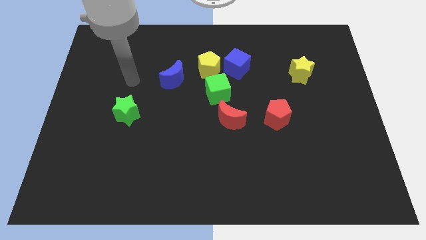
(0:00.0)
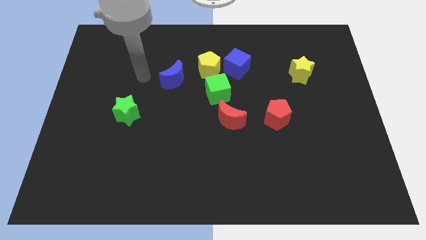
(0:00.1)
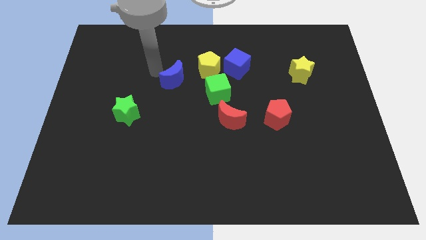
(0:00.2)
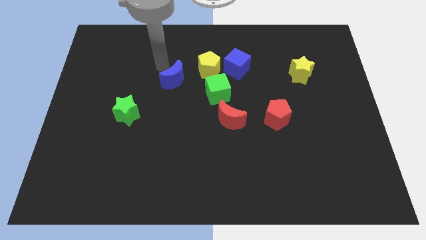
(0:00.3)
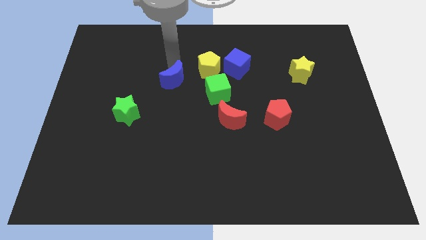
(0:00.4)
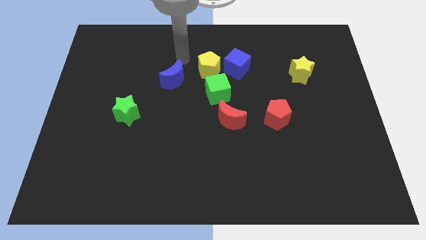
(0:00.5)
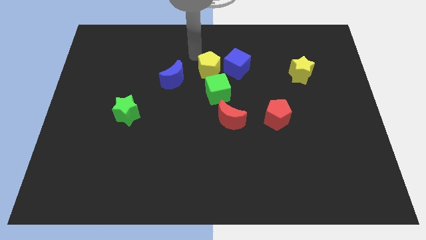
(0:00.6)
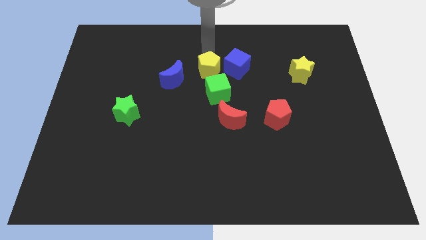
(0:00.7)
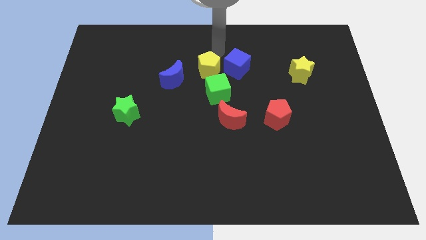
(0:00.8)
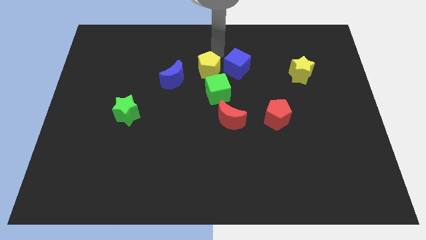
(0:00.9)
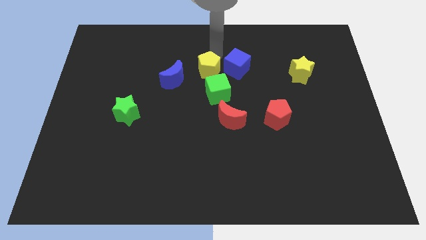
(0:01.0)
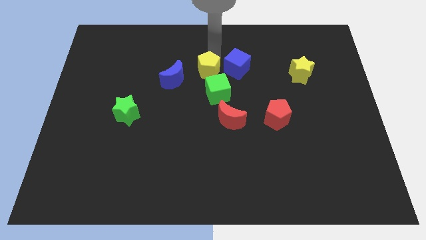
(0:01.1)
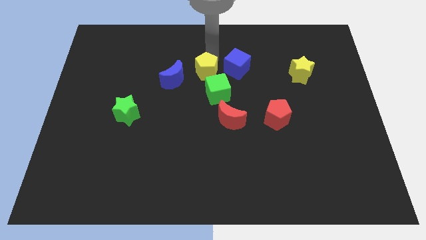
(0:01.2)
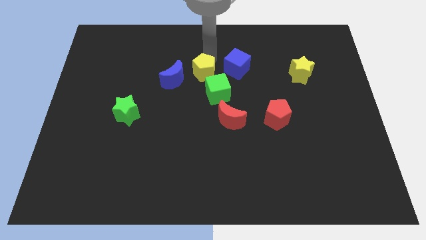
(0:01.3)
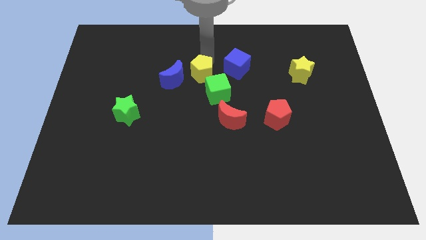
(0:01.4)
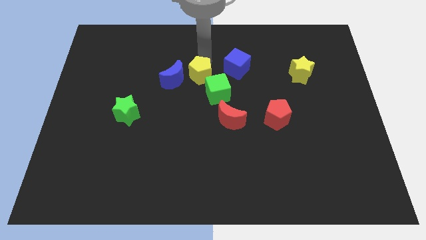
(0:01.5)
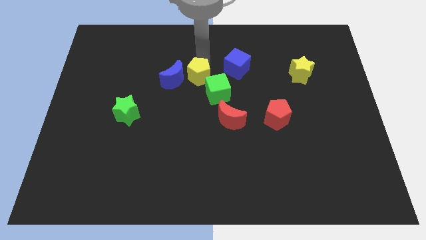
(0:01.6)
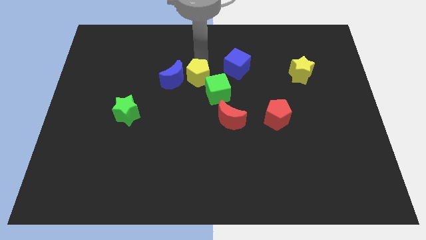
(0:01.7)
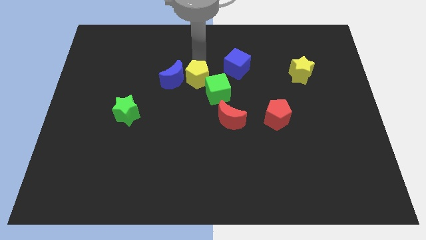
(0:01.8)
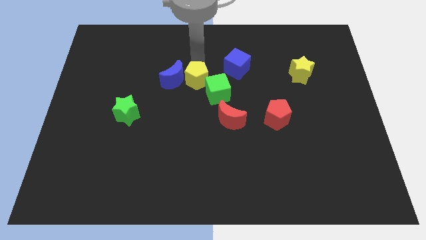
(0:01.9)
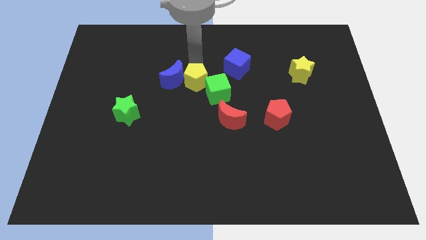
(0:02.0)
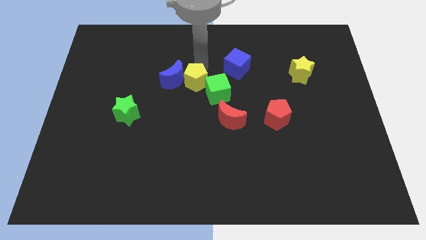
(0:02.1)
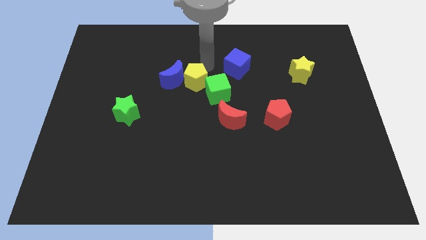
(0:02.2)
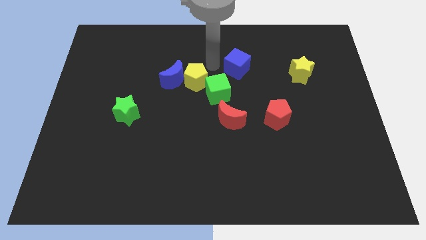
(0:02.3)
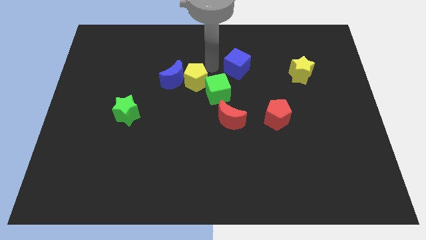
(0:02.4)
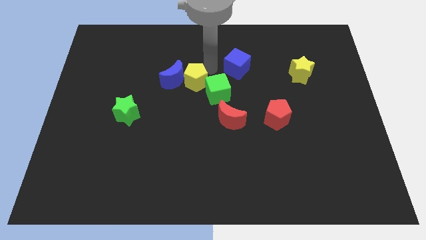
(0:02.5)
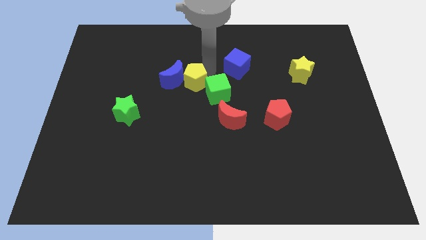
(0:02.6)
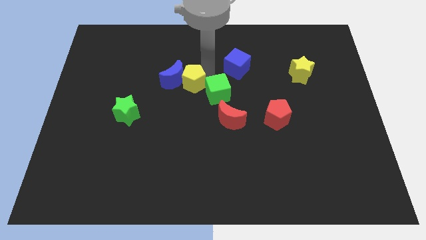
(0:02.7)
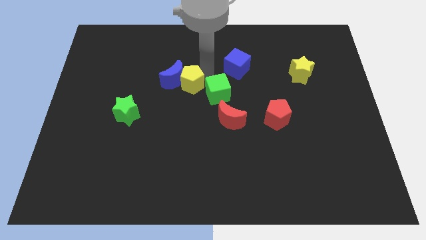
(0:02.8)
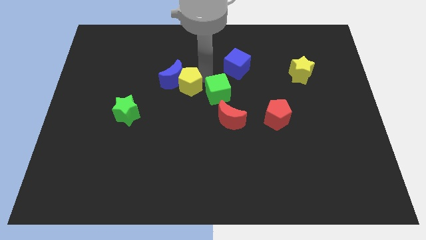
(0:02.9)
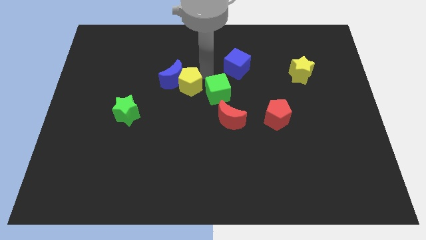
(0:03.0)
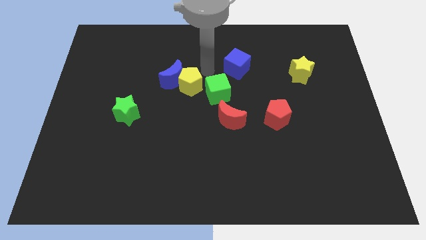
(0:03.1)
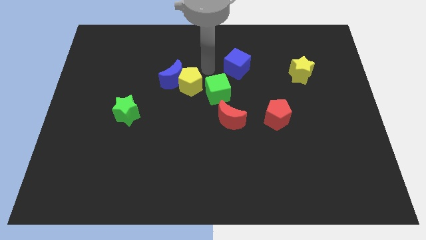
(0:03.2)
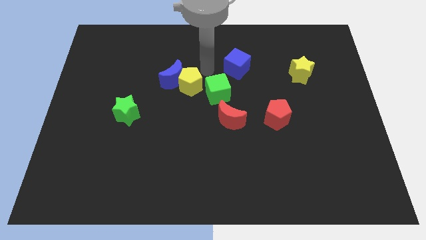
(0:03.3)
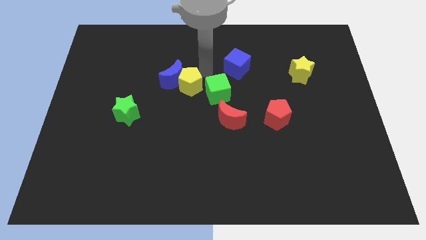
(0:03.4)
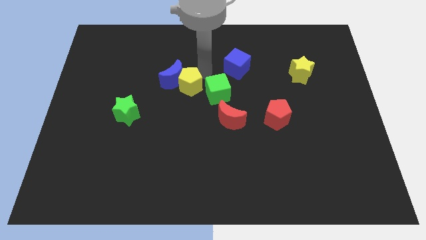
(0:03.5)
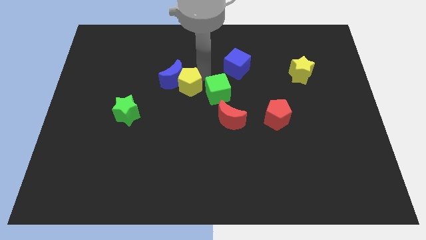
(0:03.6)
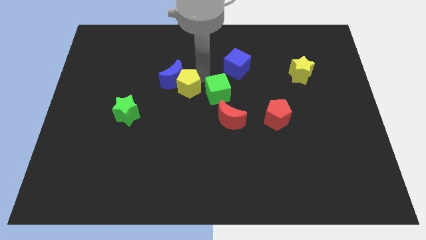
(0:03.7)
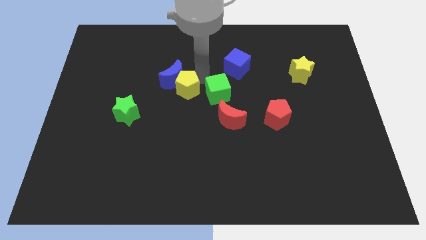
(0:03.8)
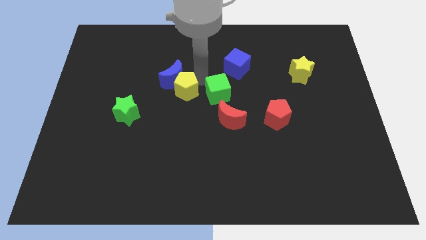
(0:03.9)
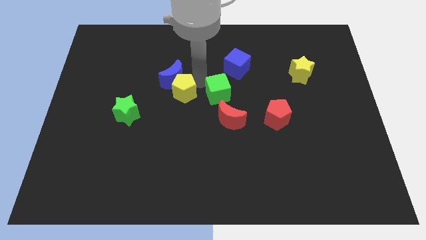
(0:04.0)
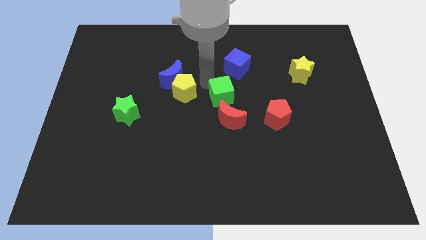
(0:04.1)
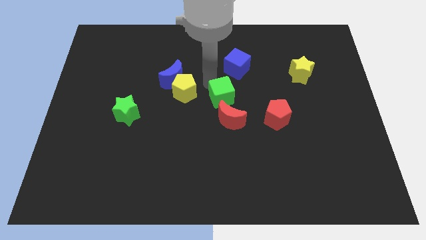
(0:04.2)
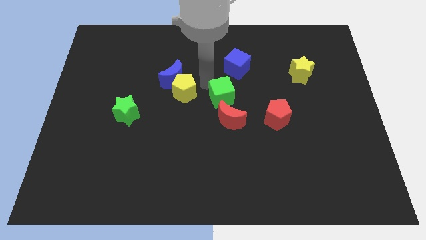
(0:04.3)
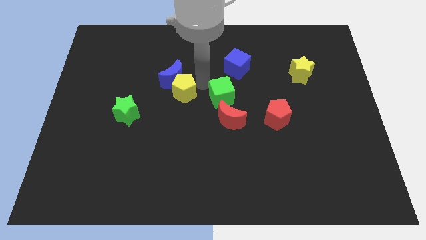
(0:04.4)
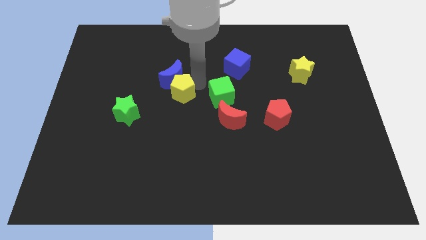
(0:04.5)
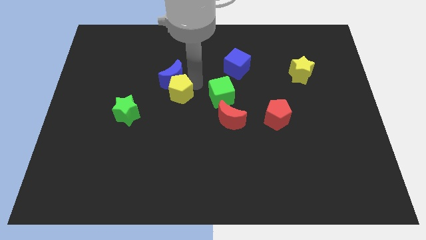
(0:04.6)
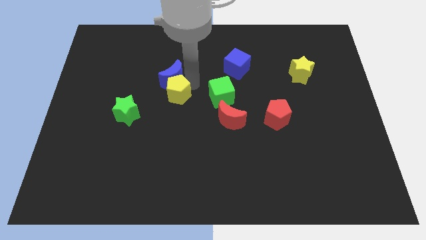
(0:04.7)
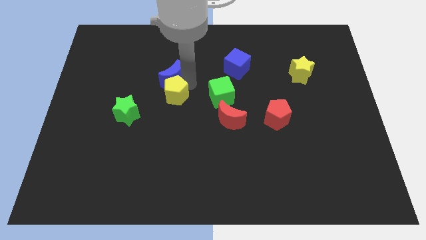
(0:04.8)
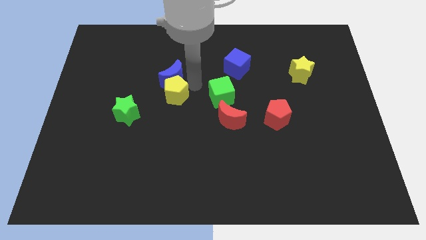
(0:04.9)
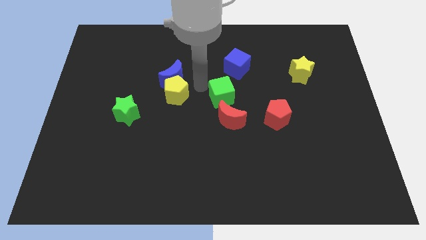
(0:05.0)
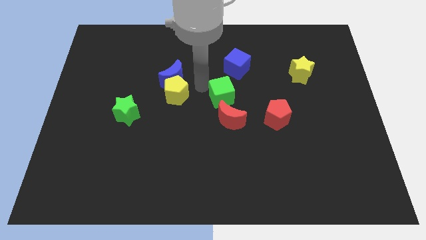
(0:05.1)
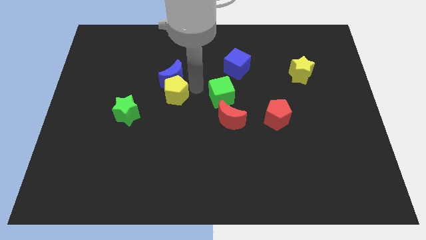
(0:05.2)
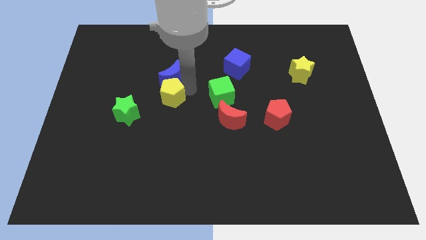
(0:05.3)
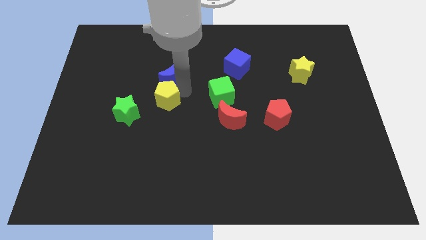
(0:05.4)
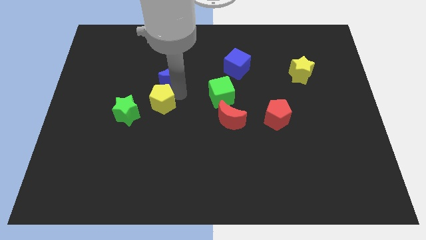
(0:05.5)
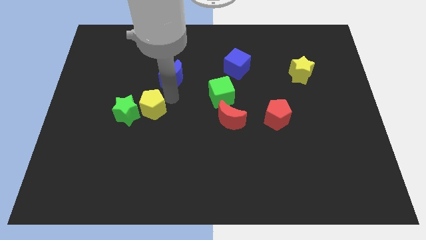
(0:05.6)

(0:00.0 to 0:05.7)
slide the yellow pentagon towards the green star

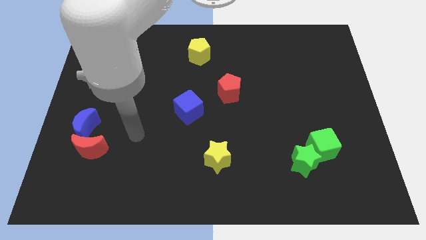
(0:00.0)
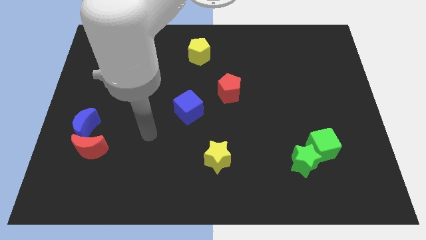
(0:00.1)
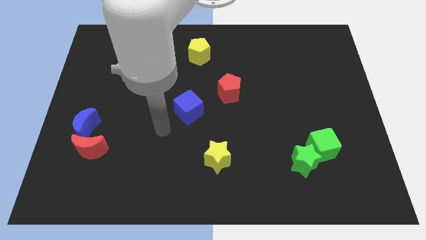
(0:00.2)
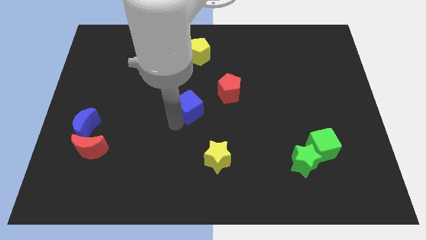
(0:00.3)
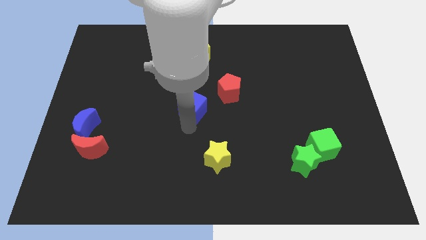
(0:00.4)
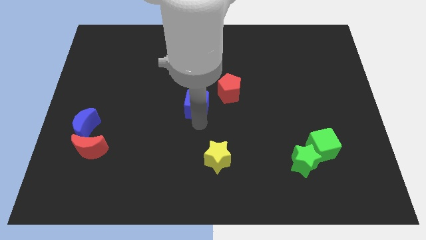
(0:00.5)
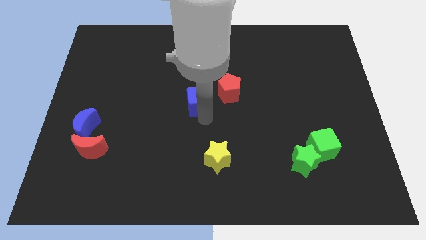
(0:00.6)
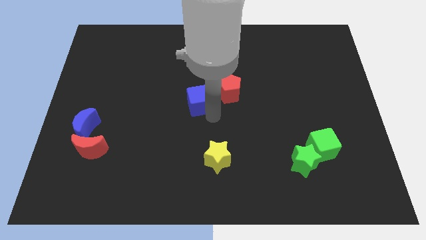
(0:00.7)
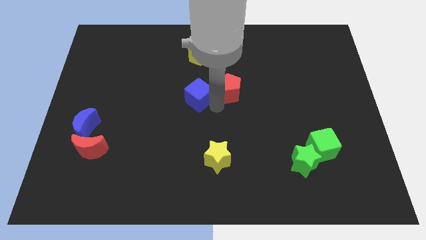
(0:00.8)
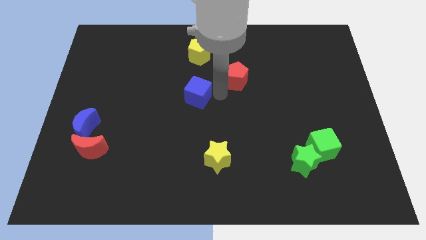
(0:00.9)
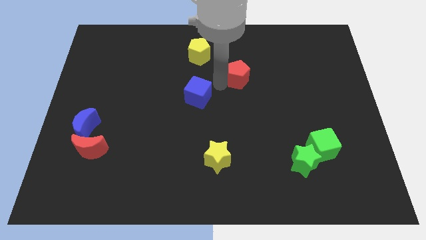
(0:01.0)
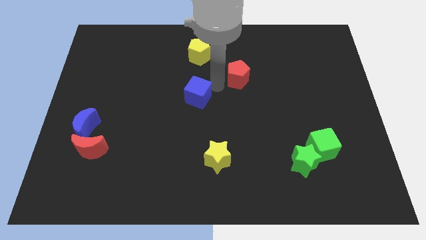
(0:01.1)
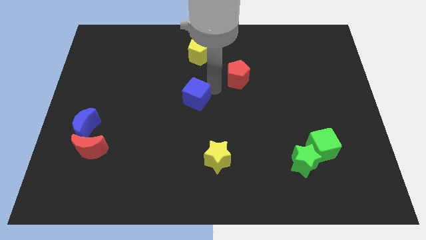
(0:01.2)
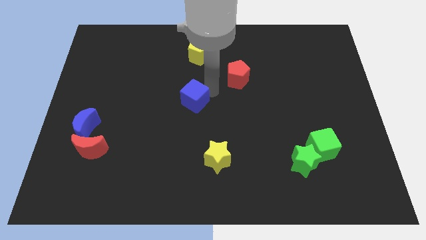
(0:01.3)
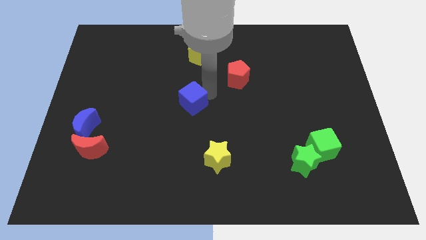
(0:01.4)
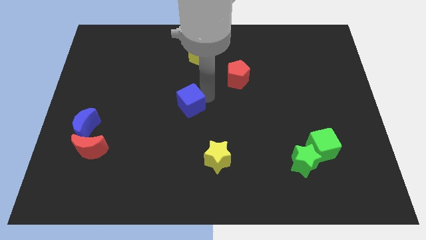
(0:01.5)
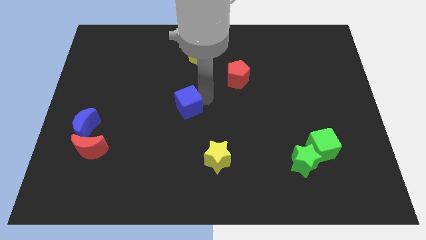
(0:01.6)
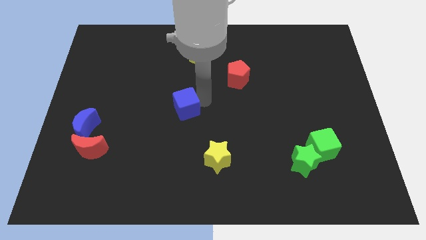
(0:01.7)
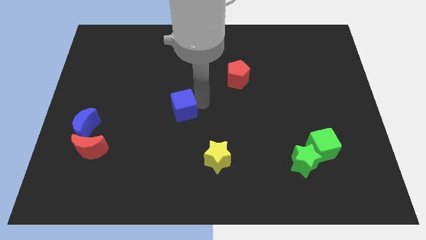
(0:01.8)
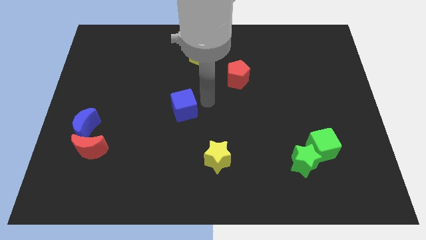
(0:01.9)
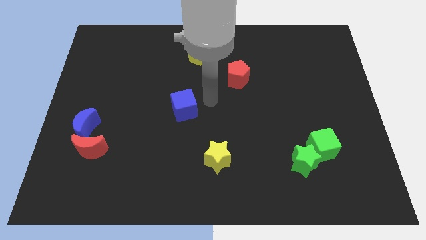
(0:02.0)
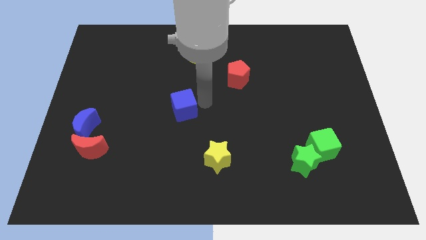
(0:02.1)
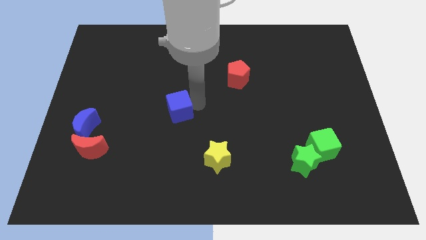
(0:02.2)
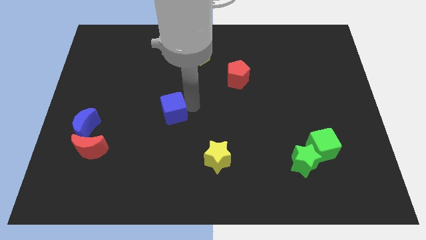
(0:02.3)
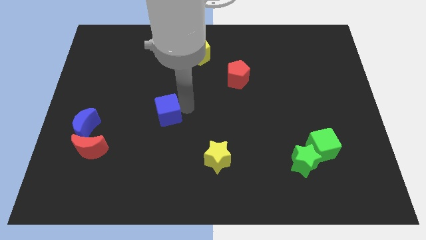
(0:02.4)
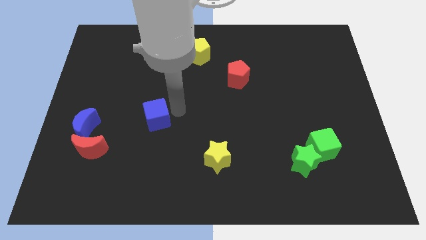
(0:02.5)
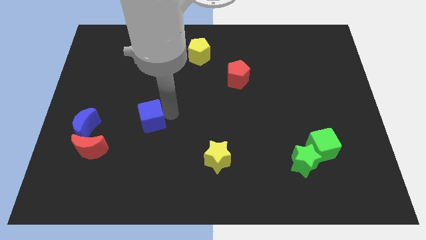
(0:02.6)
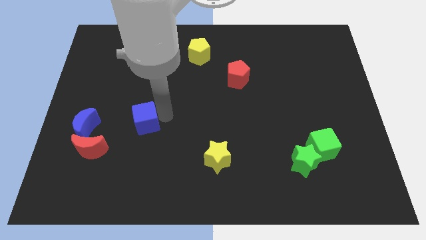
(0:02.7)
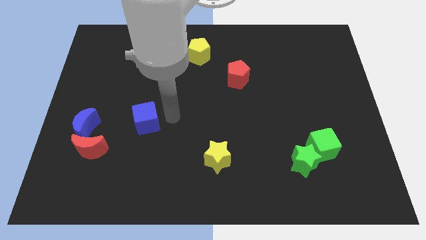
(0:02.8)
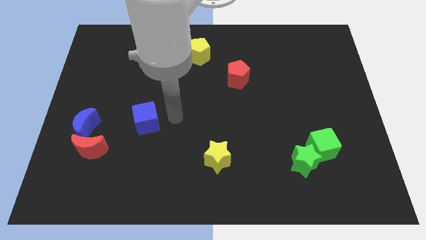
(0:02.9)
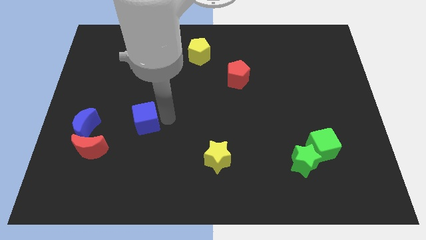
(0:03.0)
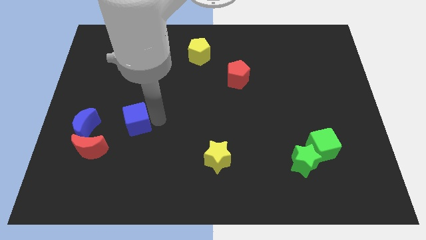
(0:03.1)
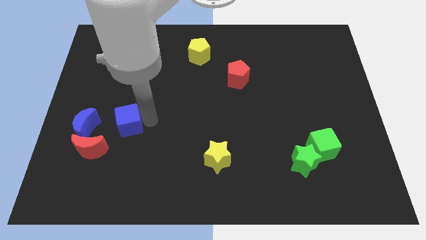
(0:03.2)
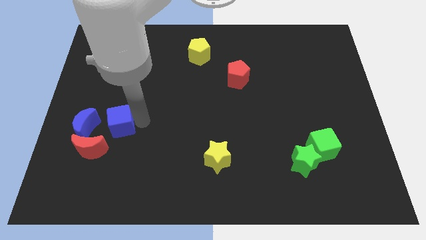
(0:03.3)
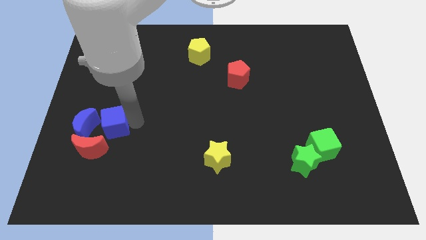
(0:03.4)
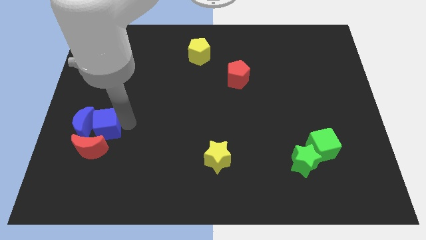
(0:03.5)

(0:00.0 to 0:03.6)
push the blue cube to the blue moon
